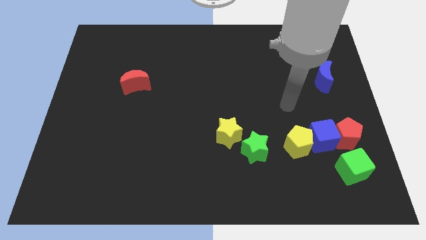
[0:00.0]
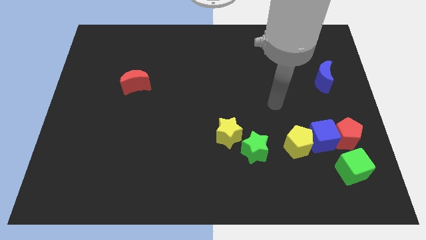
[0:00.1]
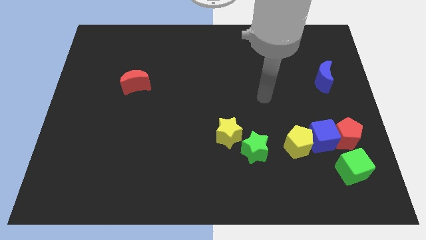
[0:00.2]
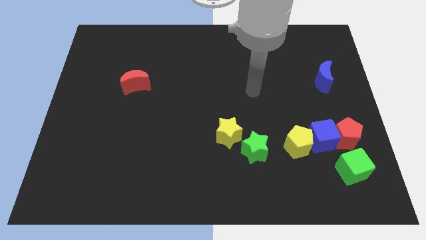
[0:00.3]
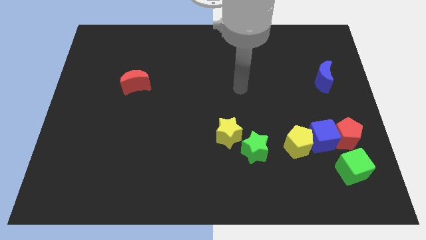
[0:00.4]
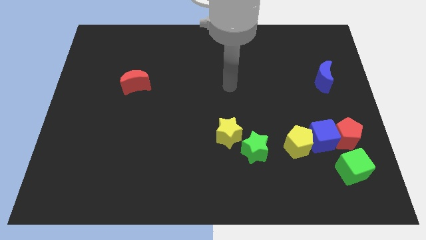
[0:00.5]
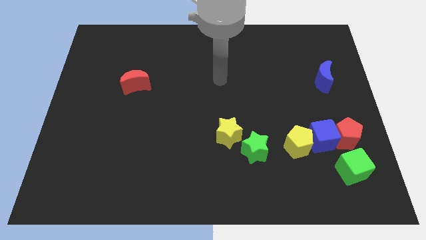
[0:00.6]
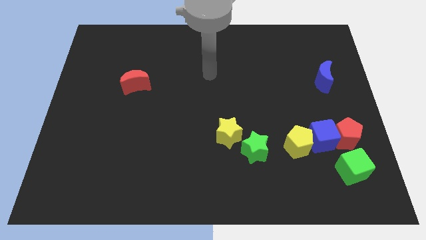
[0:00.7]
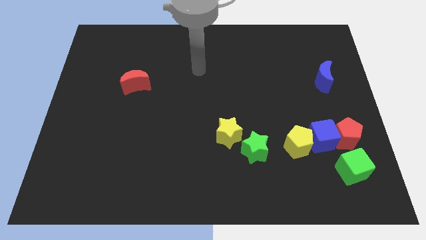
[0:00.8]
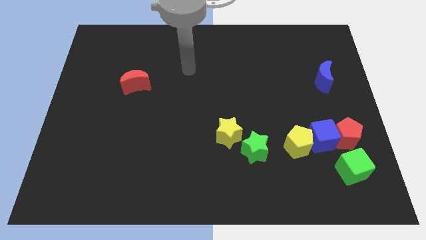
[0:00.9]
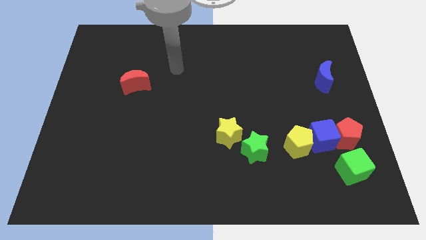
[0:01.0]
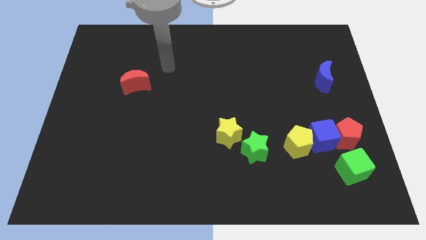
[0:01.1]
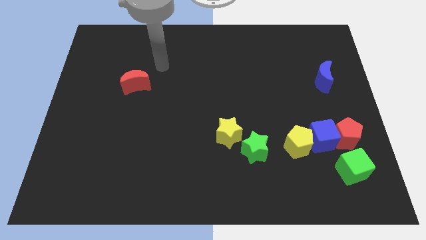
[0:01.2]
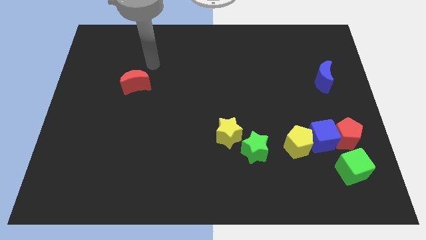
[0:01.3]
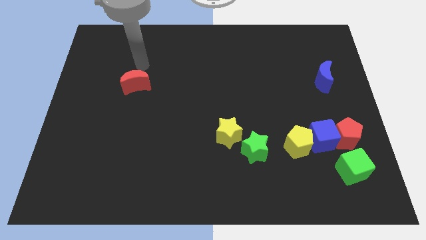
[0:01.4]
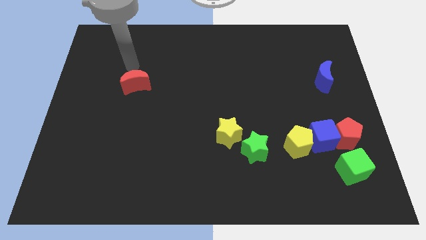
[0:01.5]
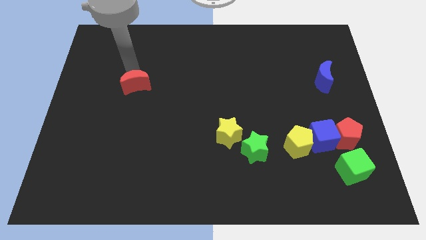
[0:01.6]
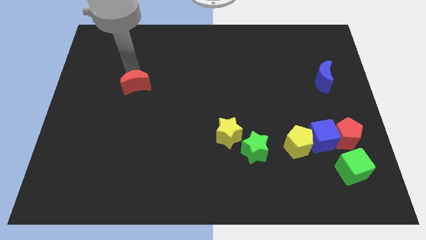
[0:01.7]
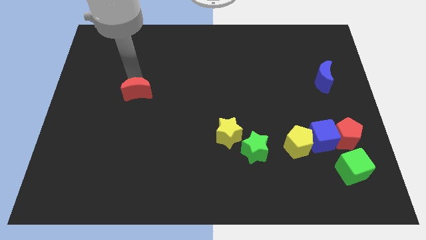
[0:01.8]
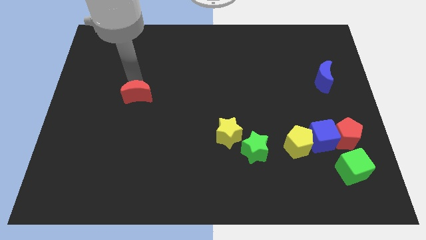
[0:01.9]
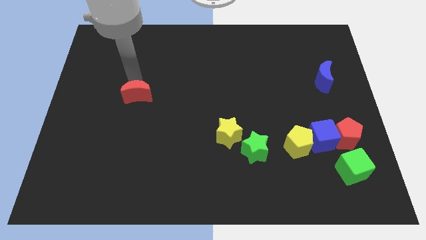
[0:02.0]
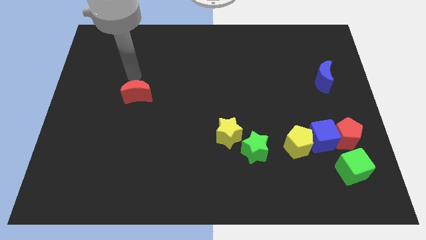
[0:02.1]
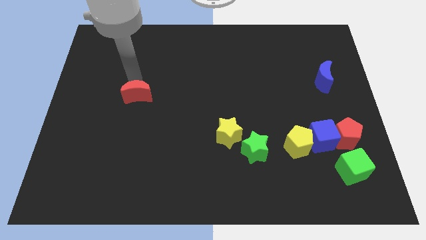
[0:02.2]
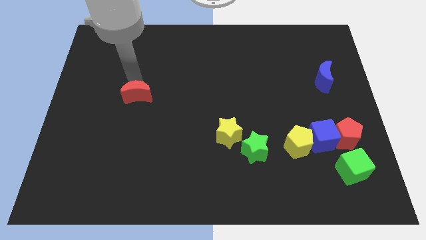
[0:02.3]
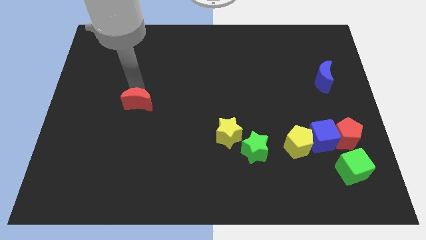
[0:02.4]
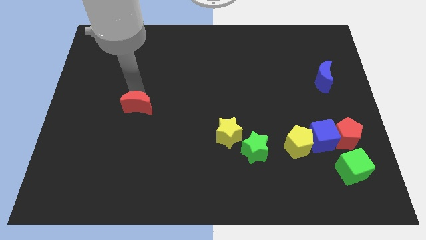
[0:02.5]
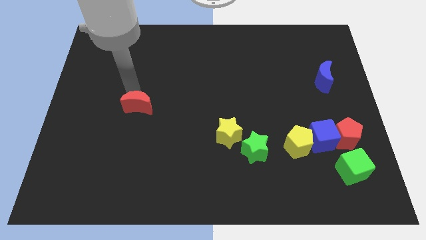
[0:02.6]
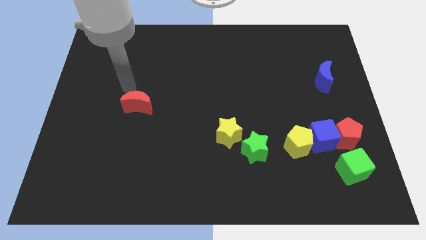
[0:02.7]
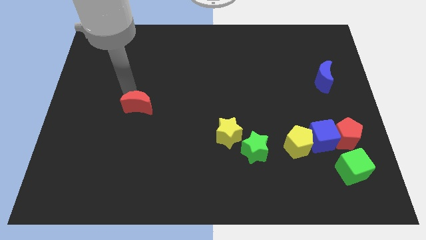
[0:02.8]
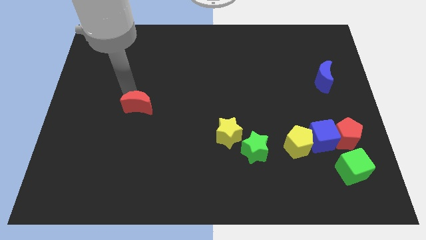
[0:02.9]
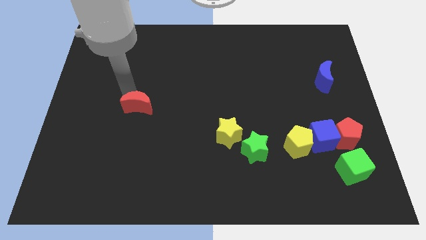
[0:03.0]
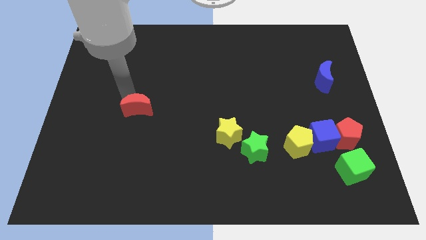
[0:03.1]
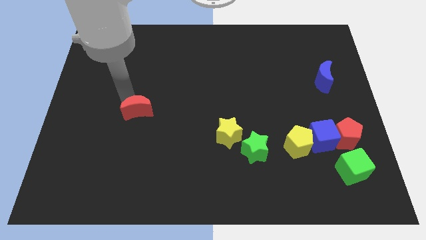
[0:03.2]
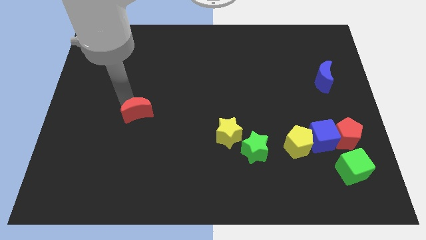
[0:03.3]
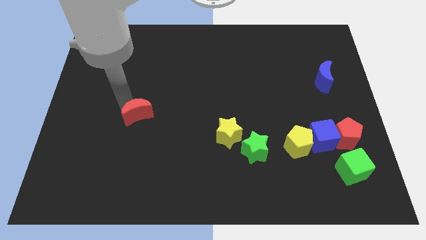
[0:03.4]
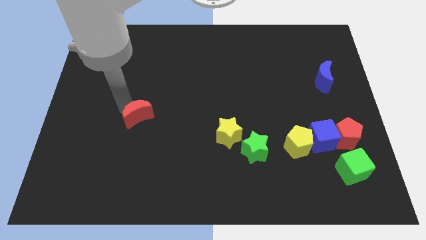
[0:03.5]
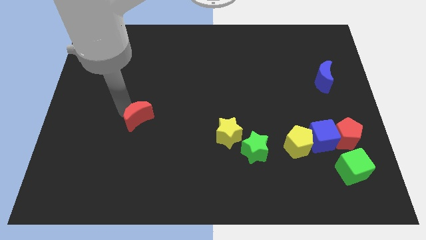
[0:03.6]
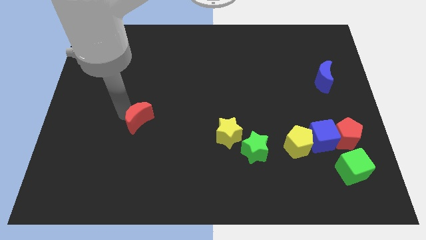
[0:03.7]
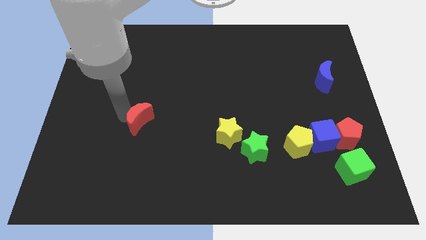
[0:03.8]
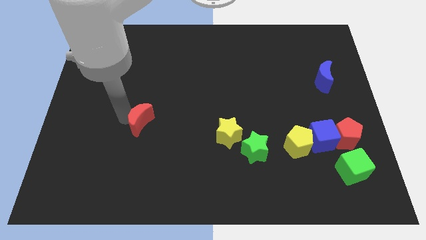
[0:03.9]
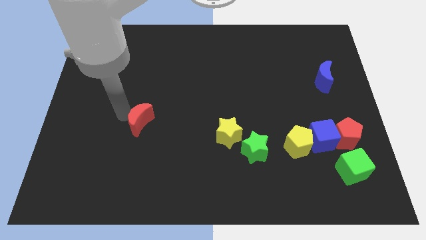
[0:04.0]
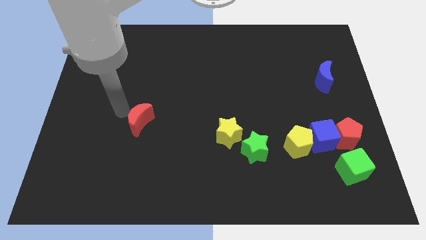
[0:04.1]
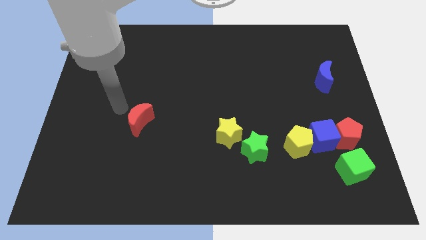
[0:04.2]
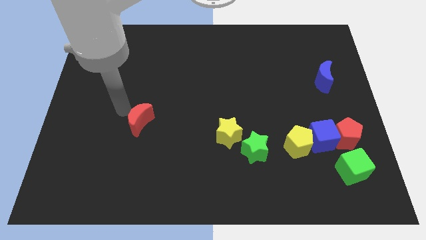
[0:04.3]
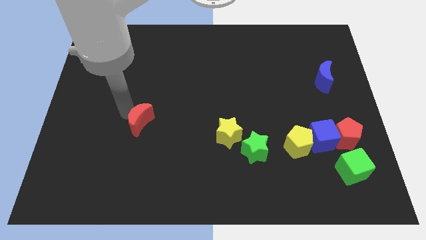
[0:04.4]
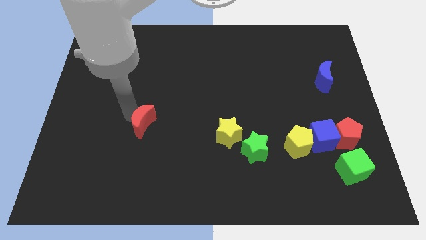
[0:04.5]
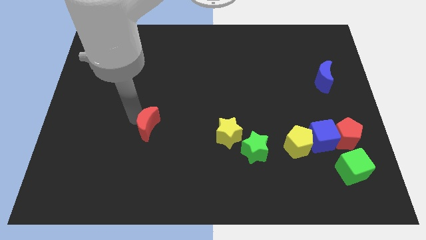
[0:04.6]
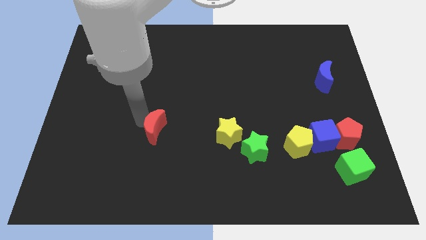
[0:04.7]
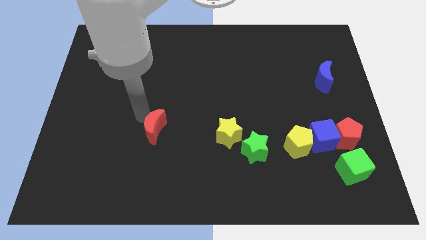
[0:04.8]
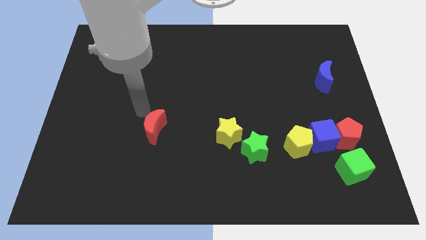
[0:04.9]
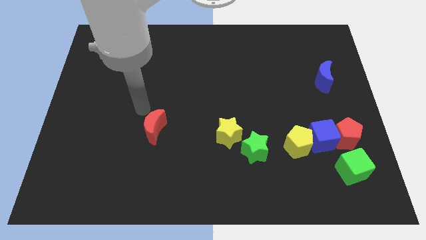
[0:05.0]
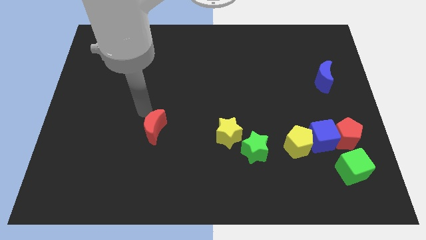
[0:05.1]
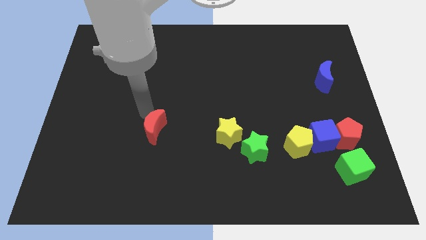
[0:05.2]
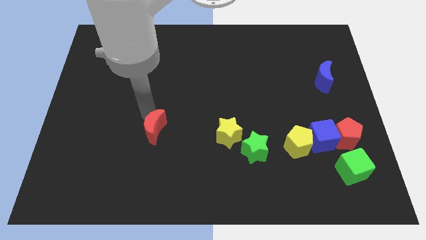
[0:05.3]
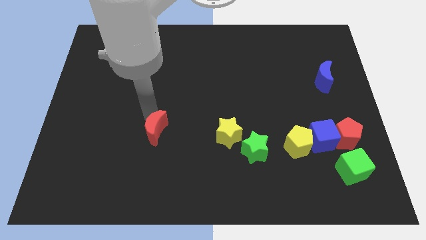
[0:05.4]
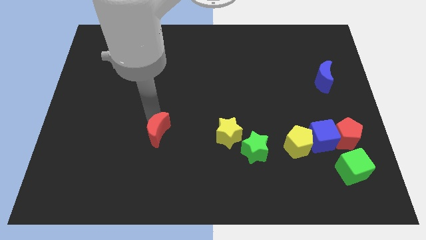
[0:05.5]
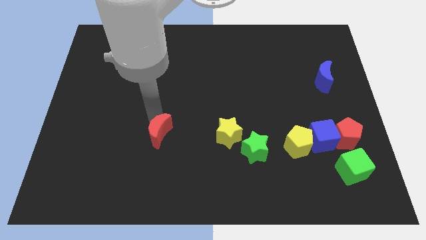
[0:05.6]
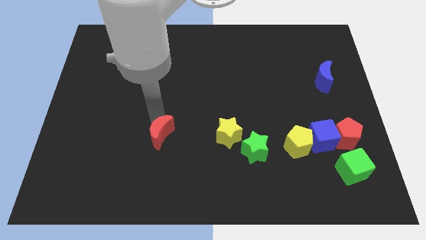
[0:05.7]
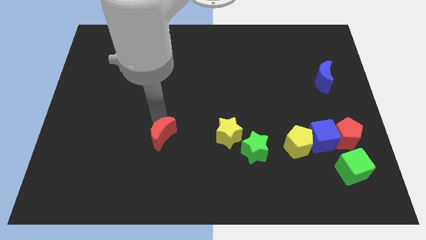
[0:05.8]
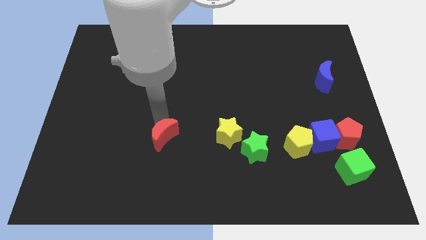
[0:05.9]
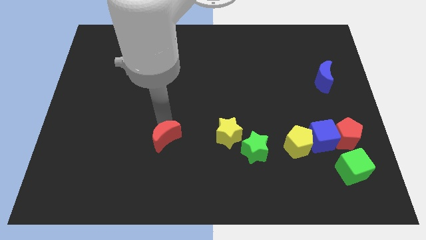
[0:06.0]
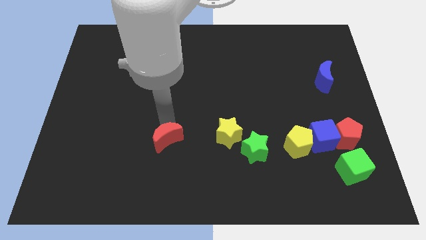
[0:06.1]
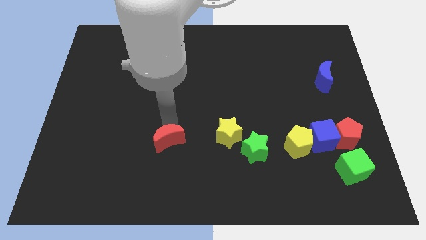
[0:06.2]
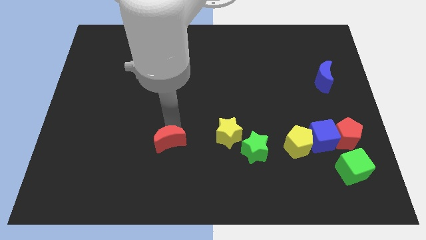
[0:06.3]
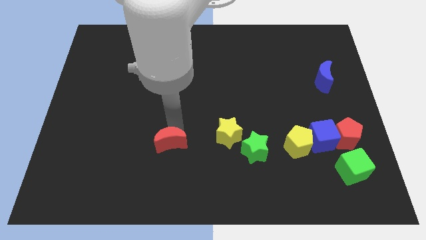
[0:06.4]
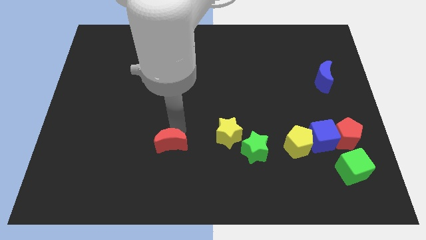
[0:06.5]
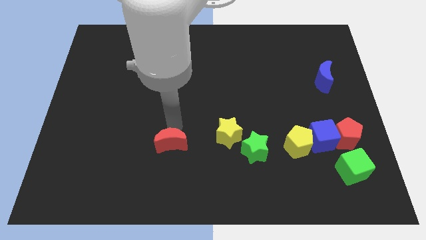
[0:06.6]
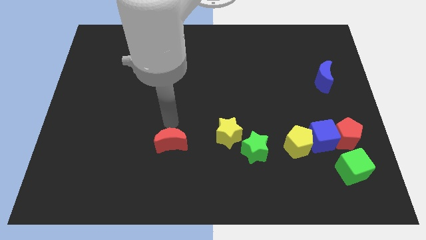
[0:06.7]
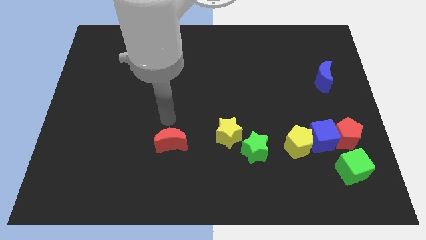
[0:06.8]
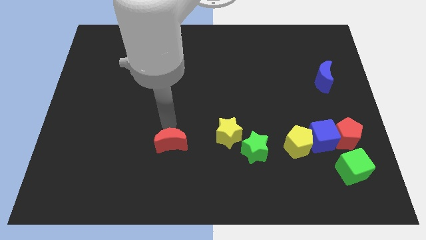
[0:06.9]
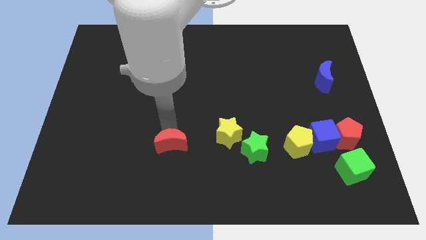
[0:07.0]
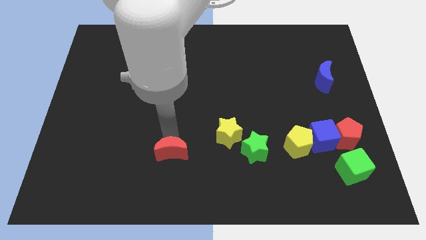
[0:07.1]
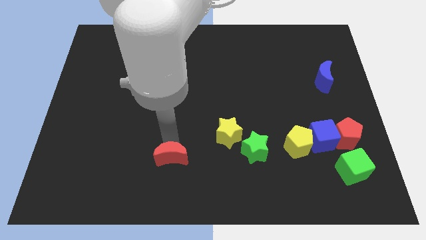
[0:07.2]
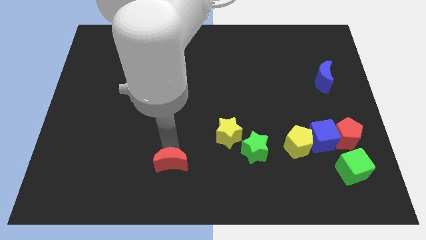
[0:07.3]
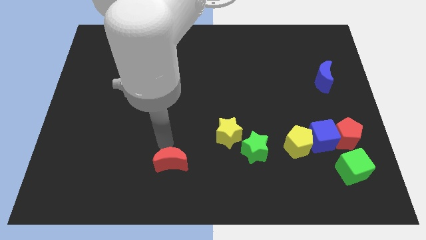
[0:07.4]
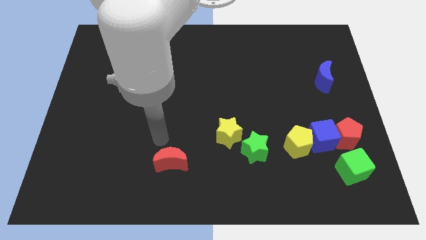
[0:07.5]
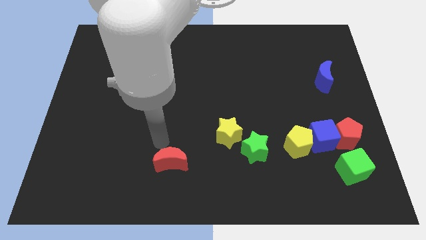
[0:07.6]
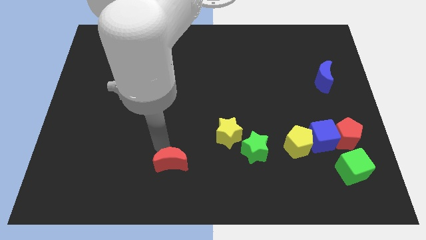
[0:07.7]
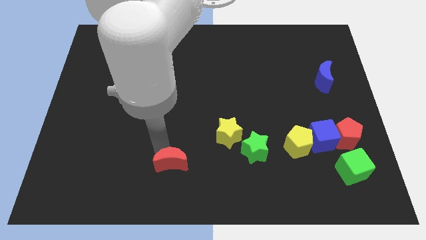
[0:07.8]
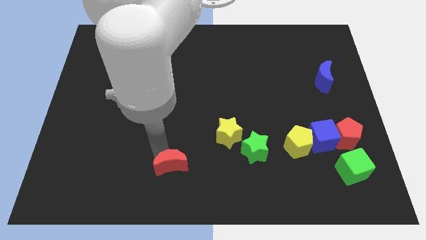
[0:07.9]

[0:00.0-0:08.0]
put the red moon to the bottom side
